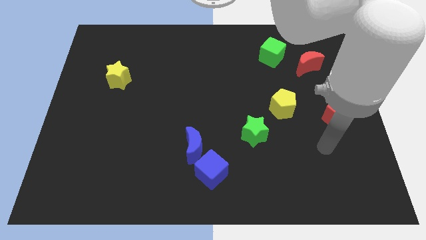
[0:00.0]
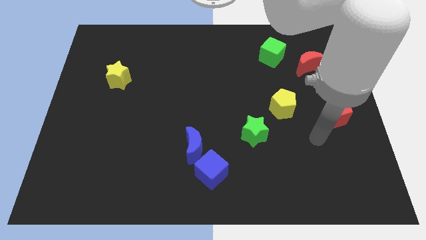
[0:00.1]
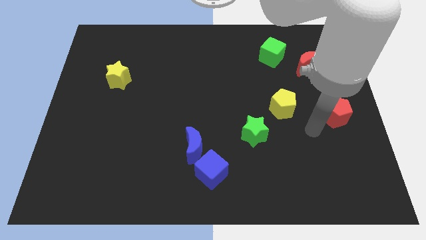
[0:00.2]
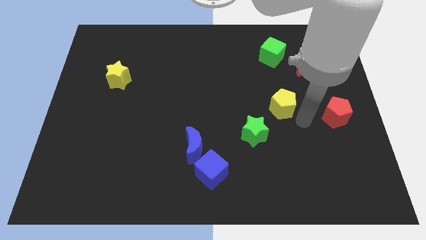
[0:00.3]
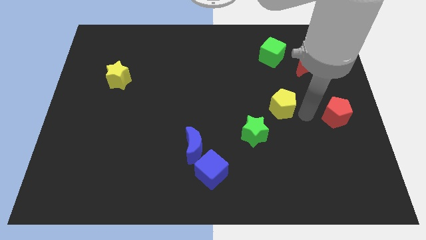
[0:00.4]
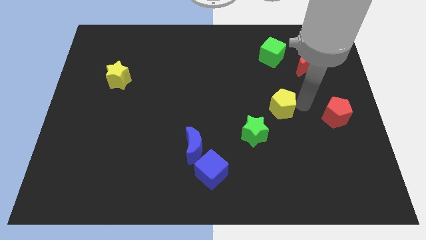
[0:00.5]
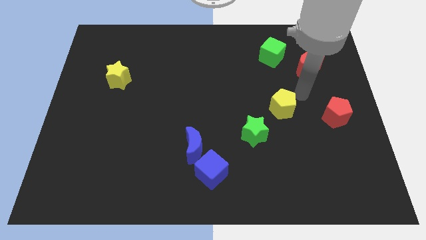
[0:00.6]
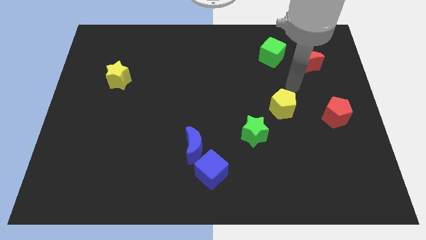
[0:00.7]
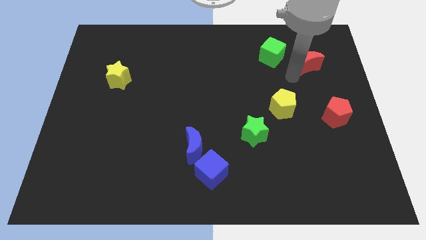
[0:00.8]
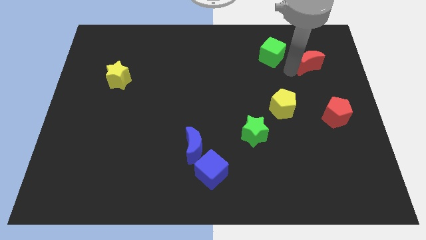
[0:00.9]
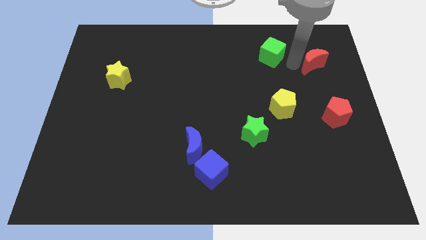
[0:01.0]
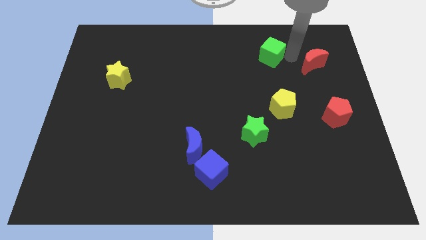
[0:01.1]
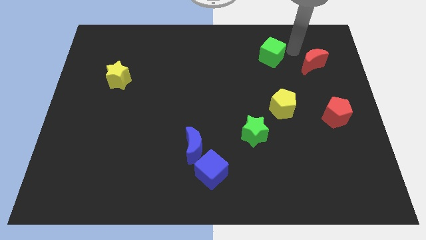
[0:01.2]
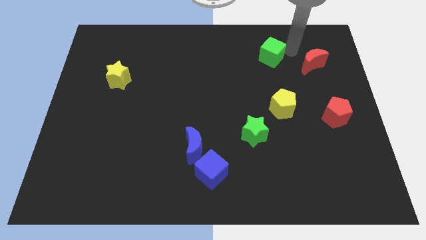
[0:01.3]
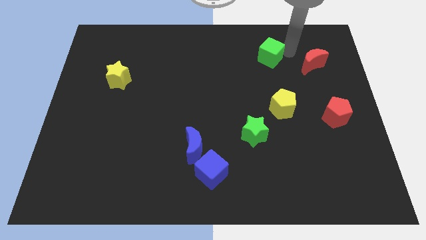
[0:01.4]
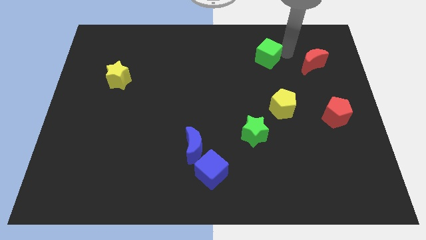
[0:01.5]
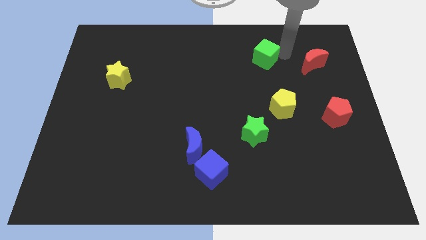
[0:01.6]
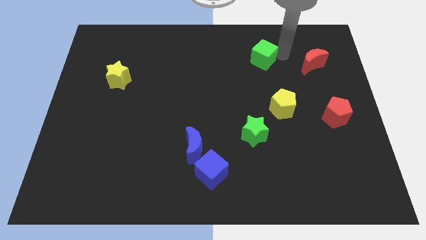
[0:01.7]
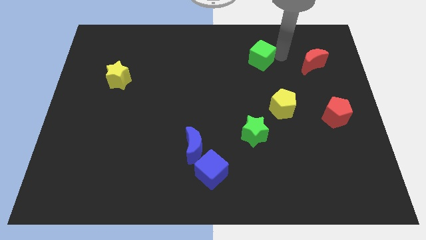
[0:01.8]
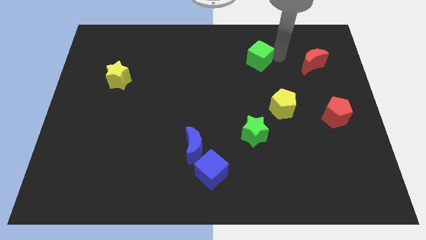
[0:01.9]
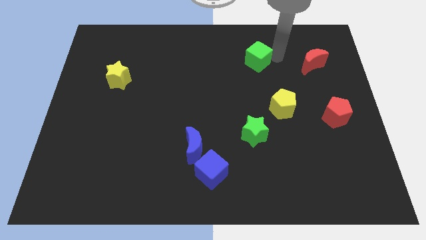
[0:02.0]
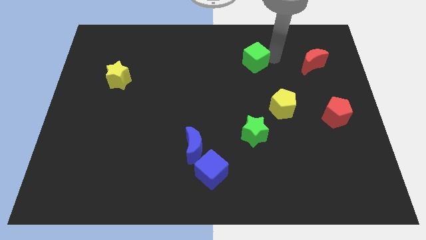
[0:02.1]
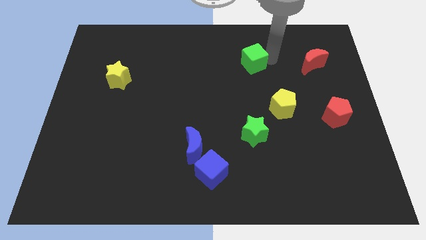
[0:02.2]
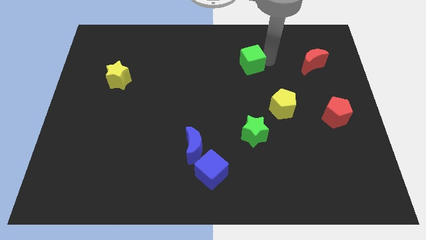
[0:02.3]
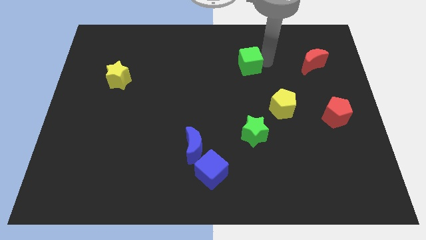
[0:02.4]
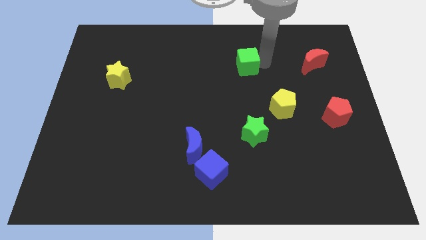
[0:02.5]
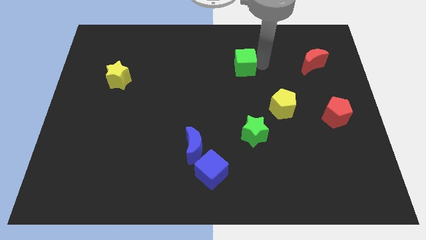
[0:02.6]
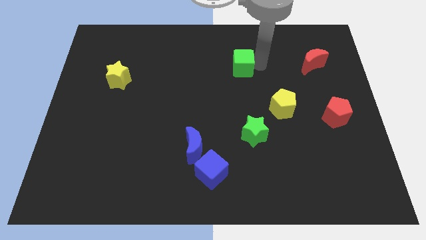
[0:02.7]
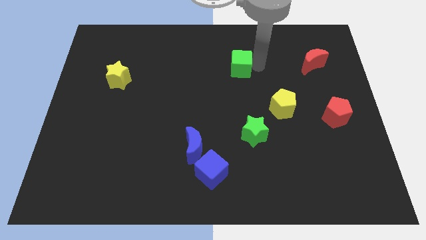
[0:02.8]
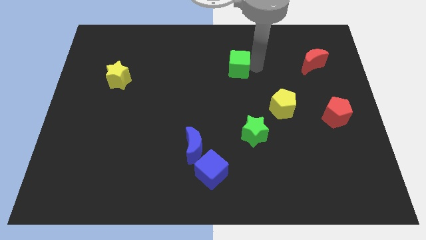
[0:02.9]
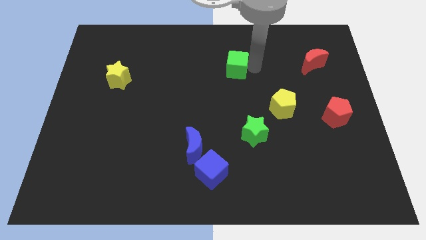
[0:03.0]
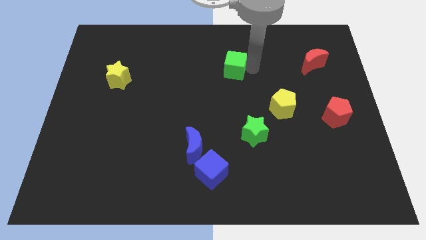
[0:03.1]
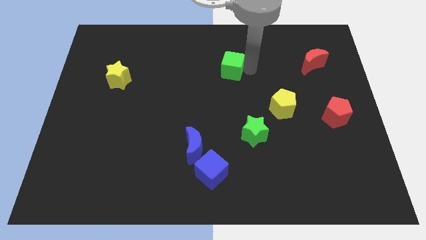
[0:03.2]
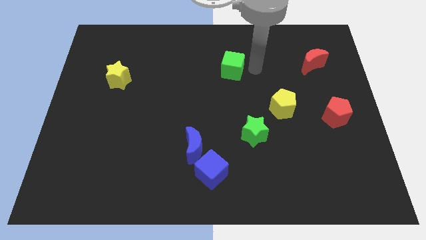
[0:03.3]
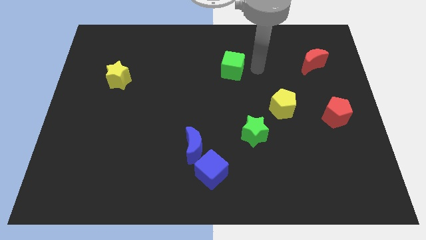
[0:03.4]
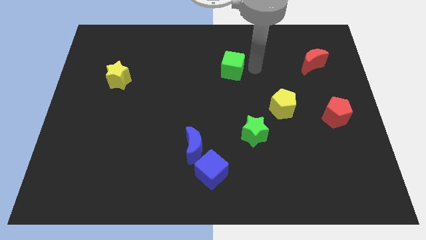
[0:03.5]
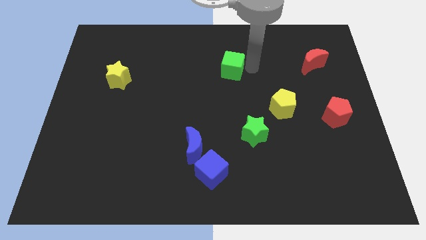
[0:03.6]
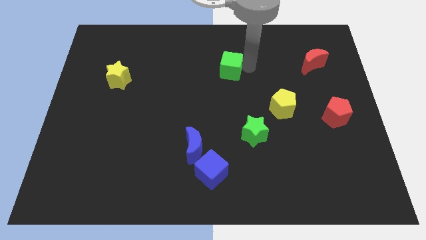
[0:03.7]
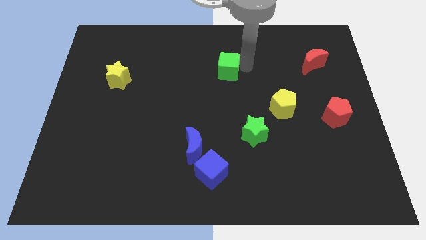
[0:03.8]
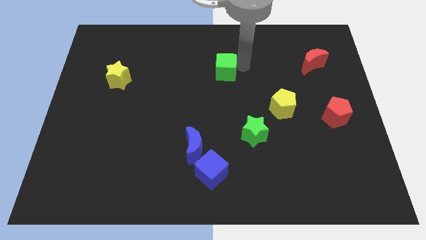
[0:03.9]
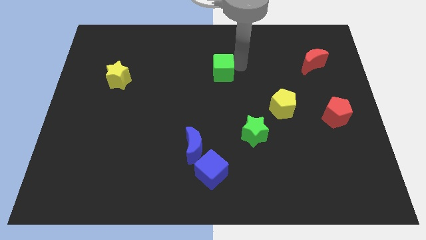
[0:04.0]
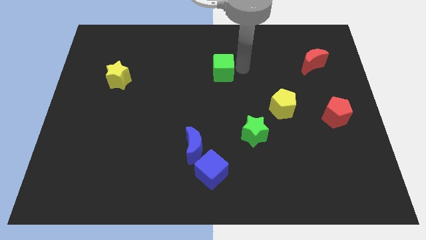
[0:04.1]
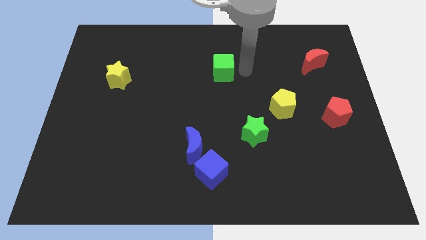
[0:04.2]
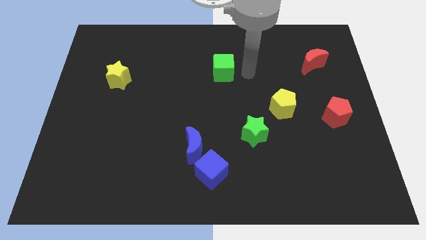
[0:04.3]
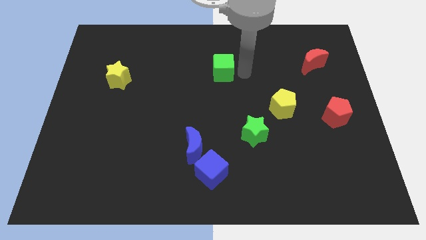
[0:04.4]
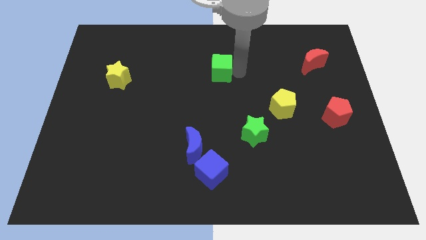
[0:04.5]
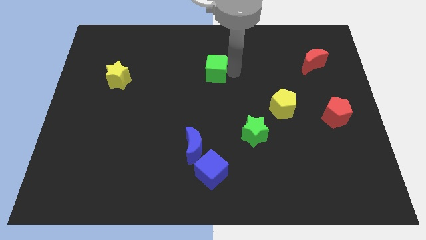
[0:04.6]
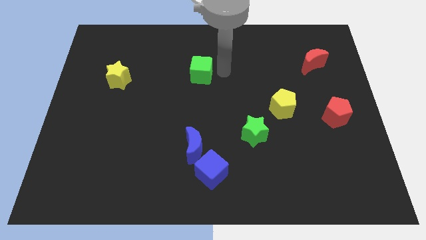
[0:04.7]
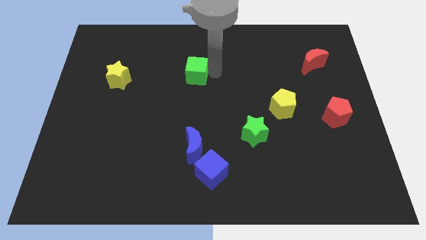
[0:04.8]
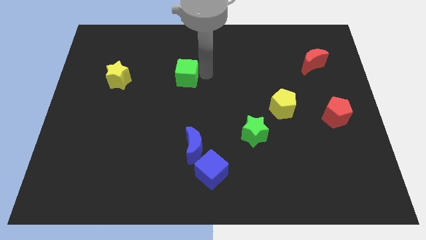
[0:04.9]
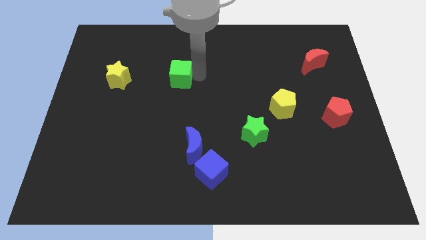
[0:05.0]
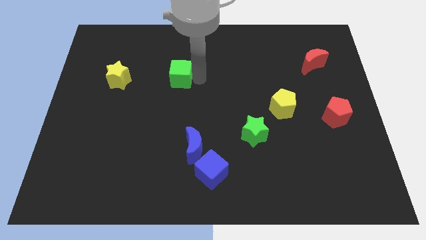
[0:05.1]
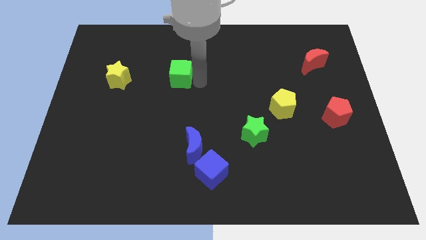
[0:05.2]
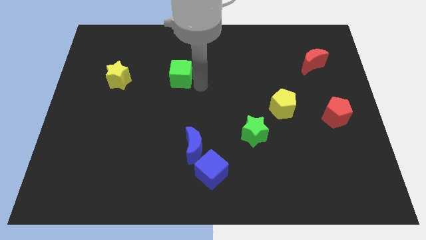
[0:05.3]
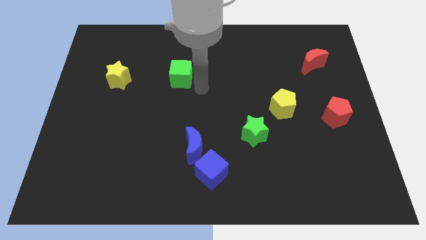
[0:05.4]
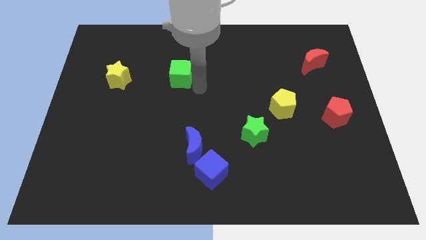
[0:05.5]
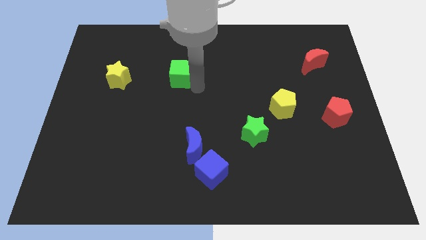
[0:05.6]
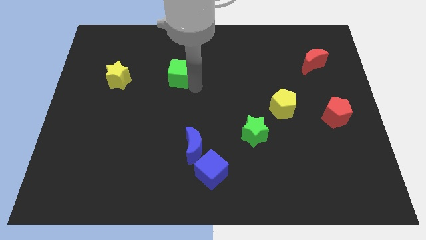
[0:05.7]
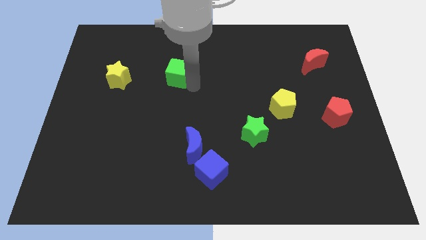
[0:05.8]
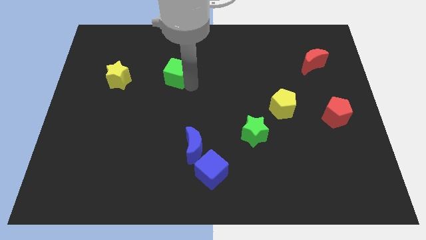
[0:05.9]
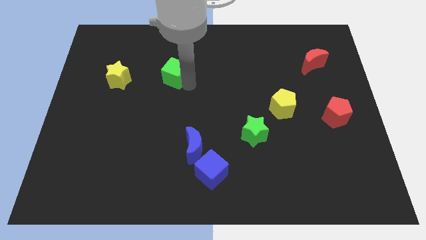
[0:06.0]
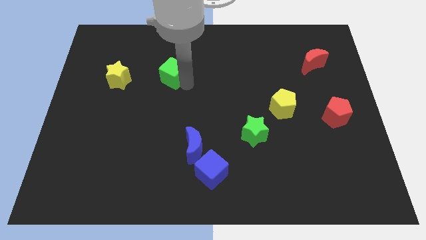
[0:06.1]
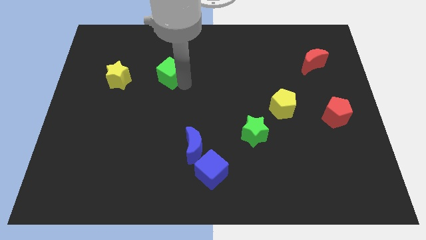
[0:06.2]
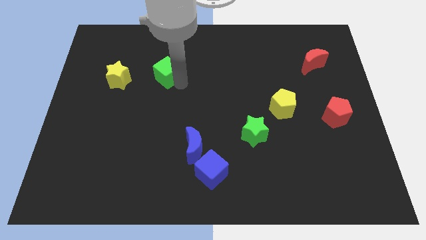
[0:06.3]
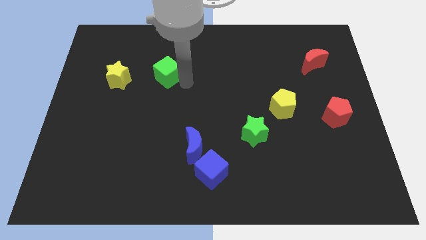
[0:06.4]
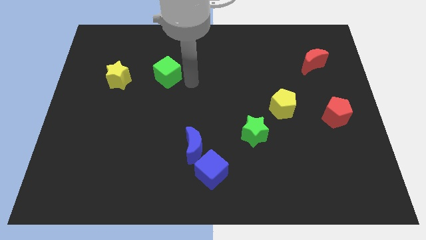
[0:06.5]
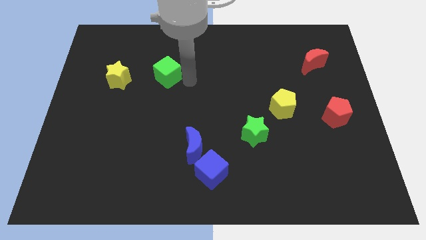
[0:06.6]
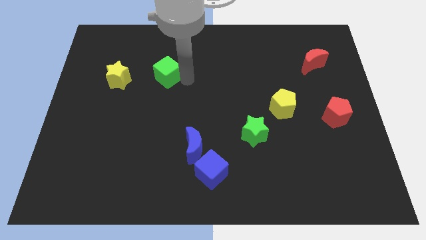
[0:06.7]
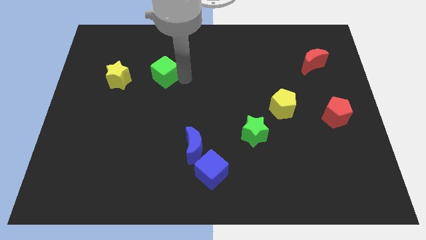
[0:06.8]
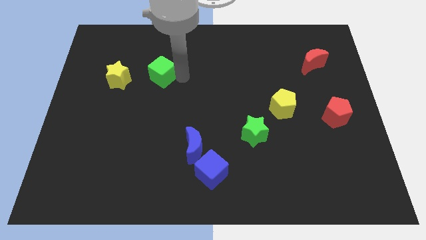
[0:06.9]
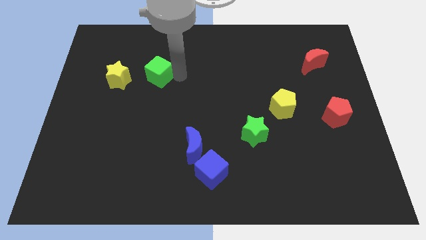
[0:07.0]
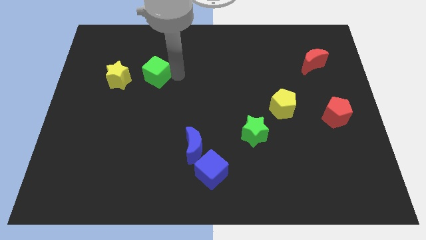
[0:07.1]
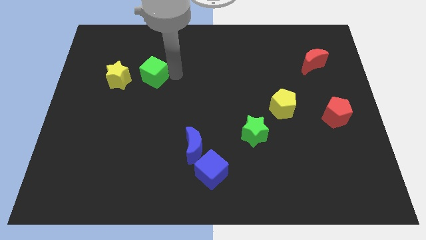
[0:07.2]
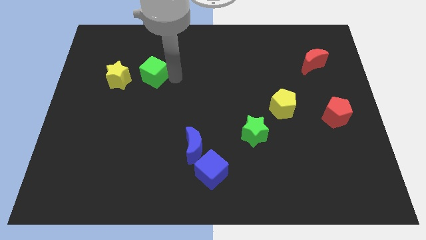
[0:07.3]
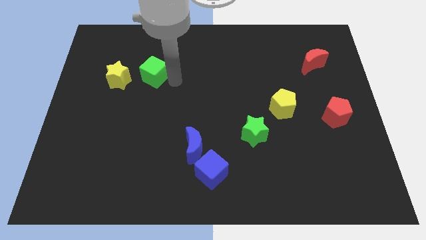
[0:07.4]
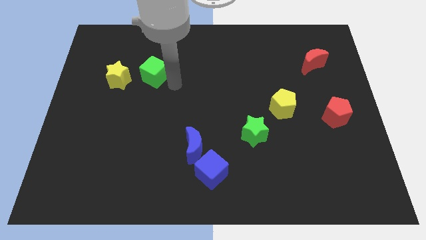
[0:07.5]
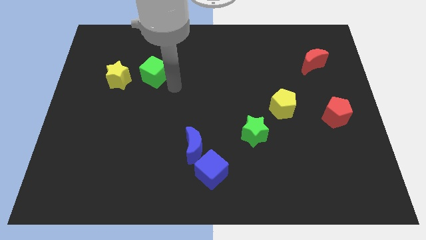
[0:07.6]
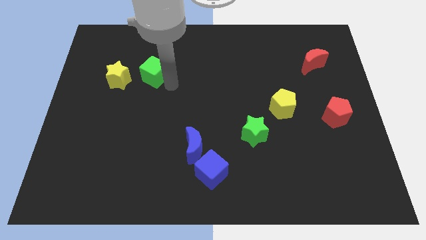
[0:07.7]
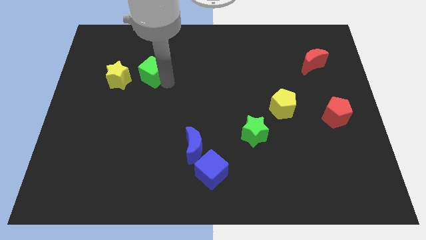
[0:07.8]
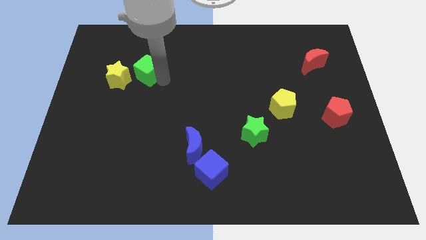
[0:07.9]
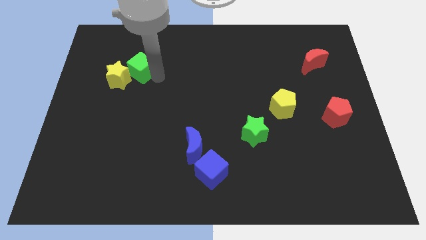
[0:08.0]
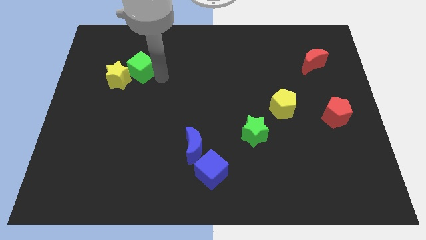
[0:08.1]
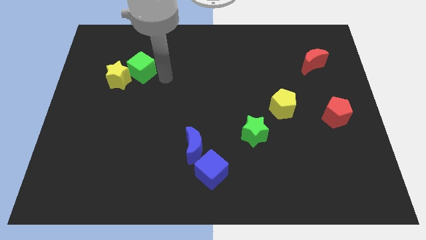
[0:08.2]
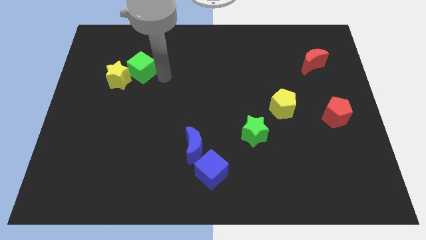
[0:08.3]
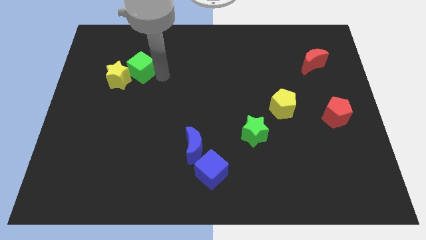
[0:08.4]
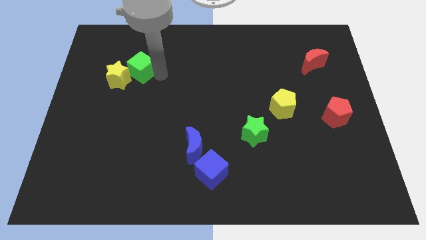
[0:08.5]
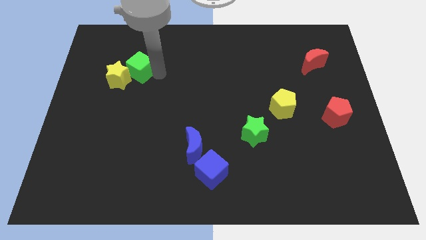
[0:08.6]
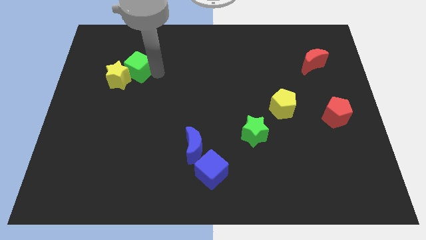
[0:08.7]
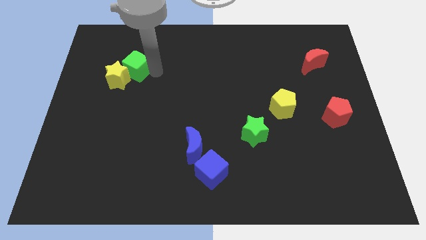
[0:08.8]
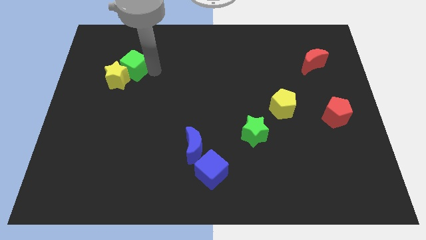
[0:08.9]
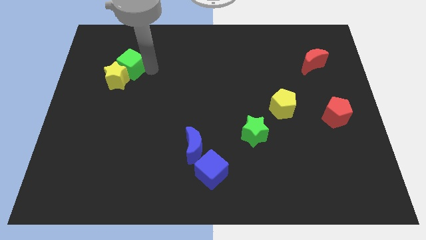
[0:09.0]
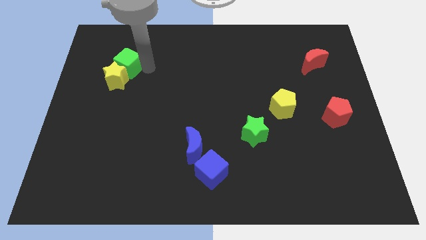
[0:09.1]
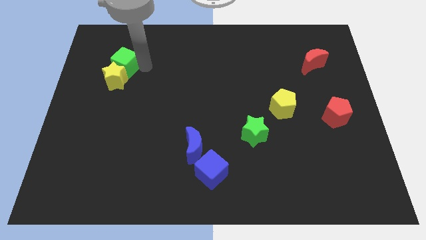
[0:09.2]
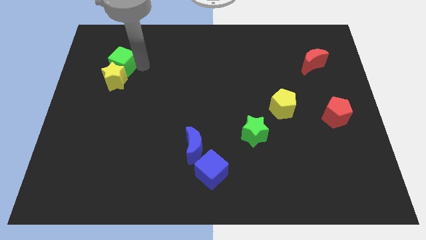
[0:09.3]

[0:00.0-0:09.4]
slide the green cube diagonally up and to the left of the yellow star
